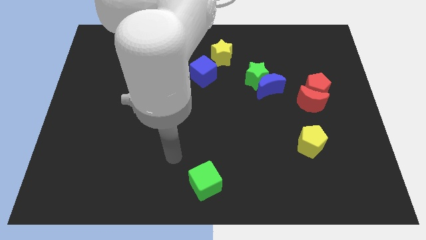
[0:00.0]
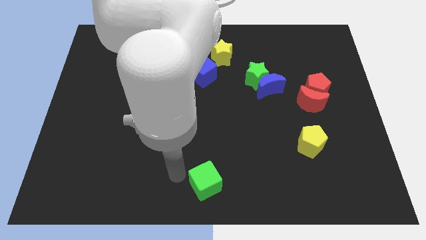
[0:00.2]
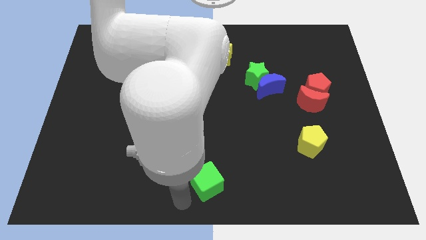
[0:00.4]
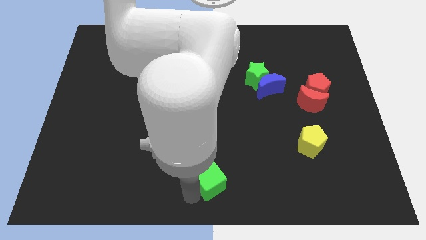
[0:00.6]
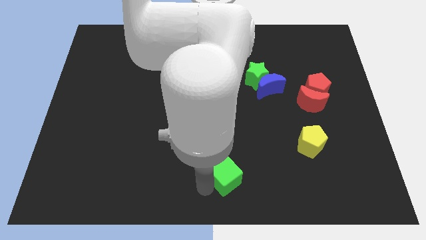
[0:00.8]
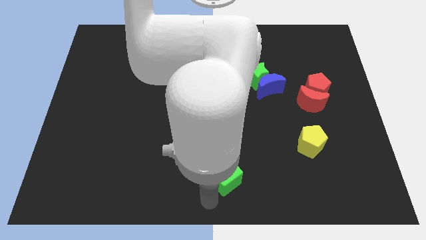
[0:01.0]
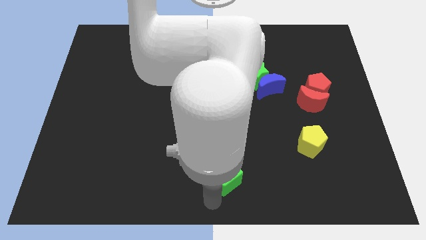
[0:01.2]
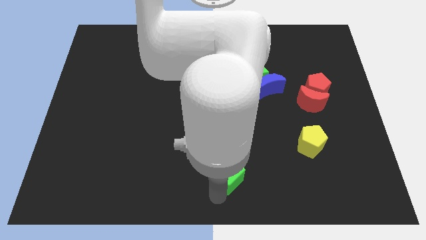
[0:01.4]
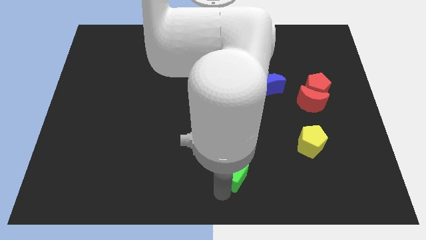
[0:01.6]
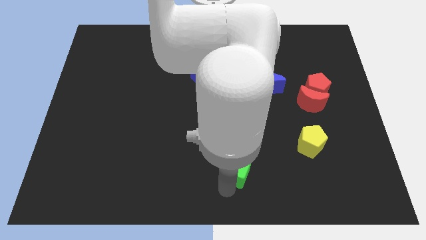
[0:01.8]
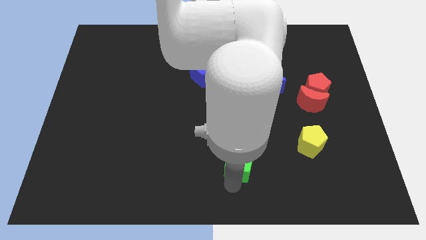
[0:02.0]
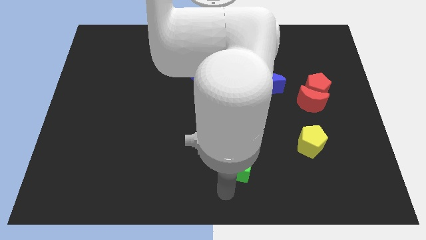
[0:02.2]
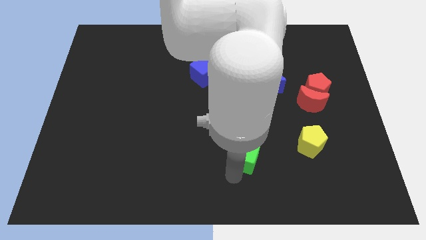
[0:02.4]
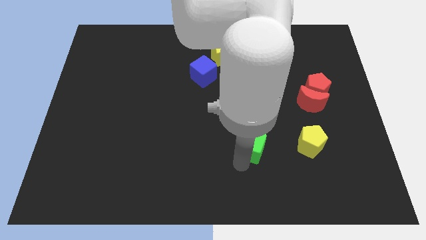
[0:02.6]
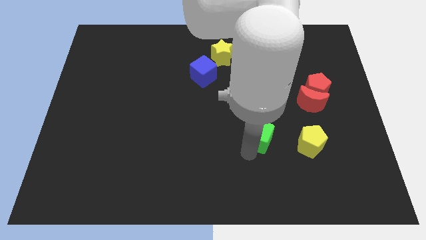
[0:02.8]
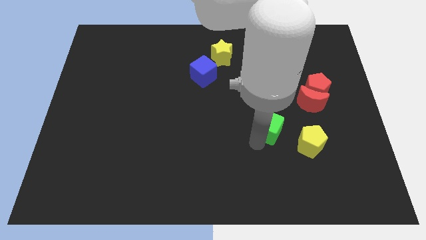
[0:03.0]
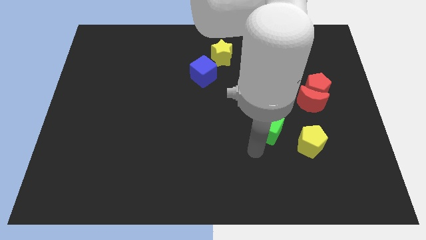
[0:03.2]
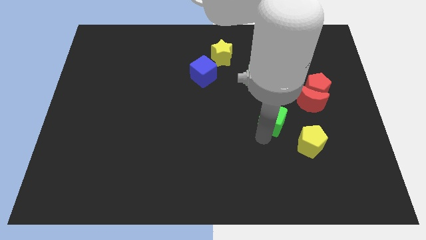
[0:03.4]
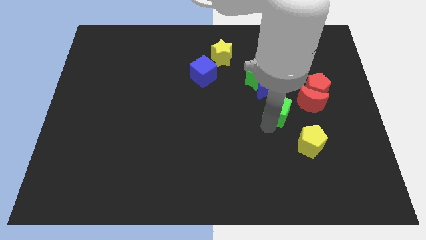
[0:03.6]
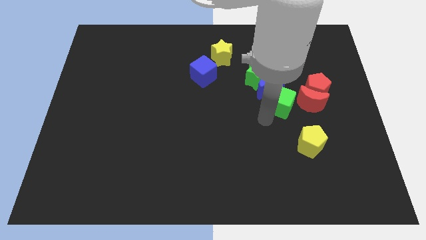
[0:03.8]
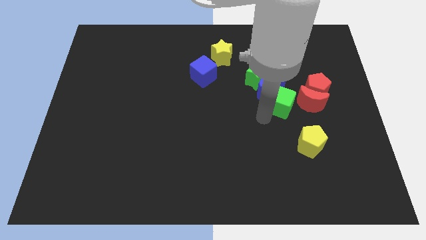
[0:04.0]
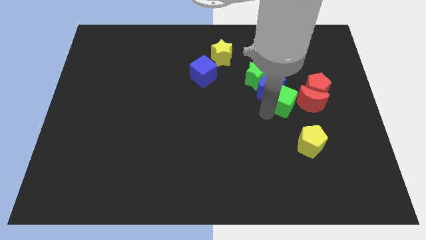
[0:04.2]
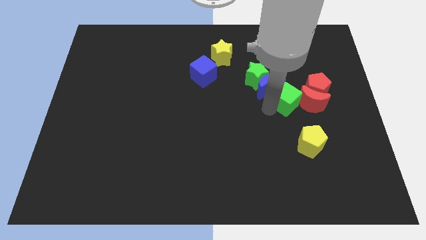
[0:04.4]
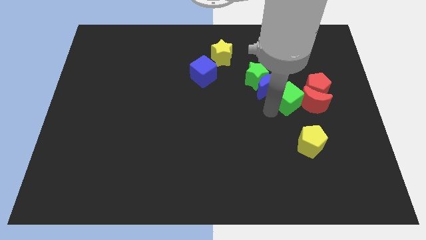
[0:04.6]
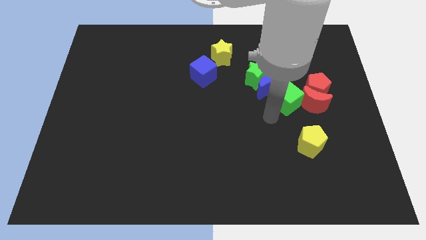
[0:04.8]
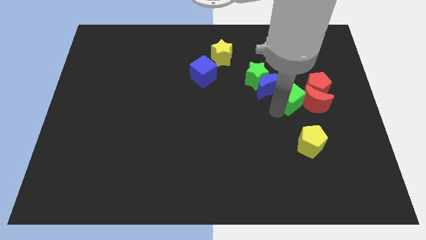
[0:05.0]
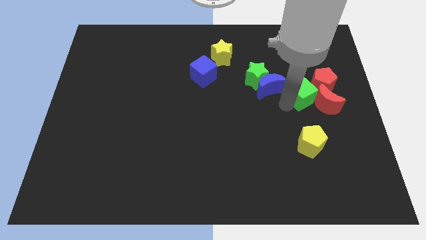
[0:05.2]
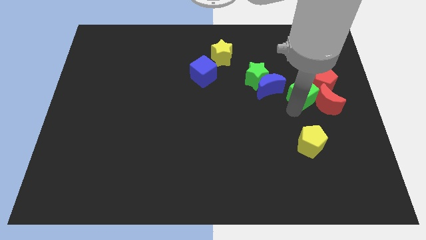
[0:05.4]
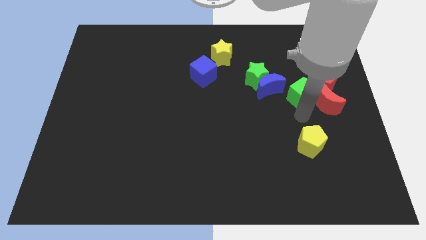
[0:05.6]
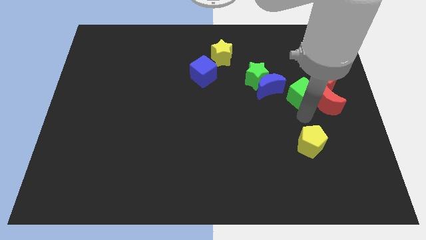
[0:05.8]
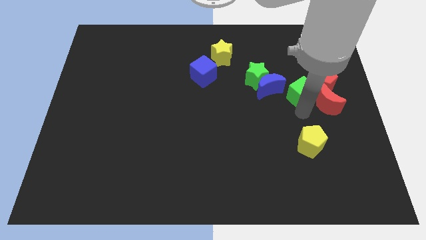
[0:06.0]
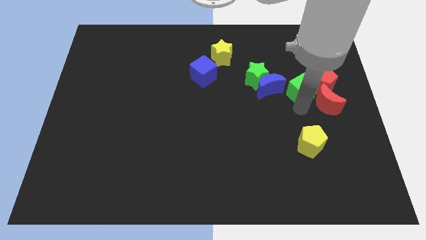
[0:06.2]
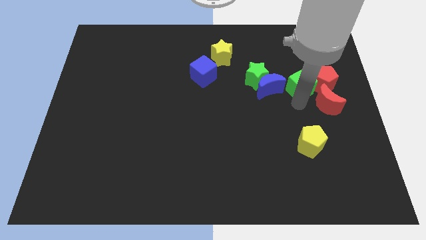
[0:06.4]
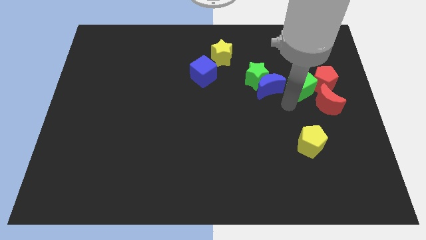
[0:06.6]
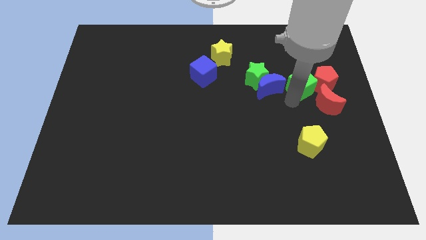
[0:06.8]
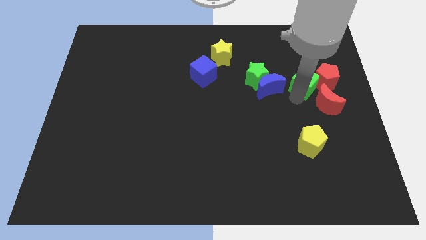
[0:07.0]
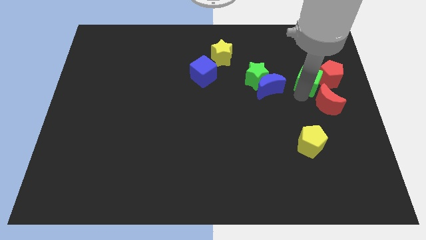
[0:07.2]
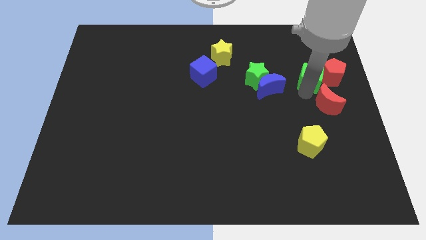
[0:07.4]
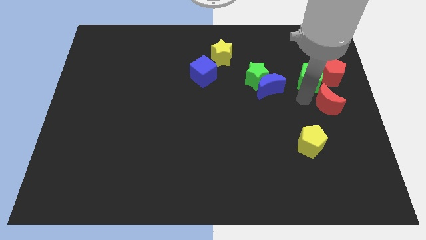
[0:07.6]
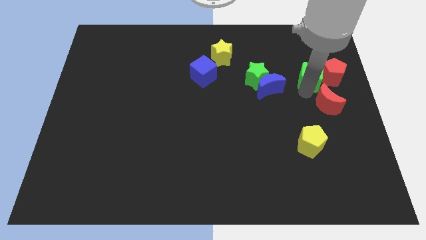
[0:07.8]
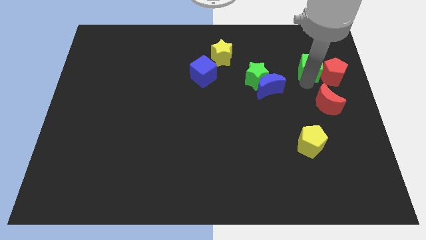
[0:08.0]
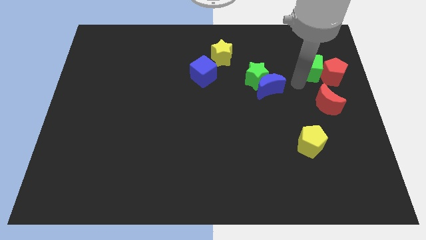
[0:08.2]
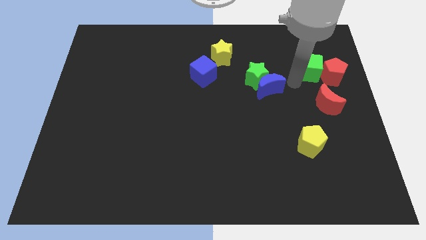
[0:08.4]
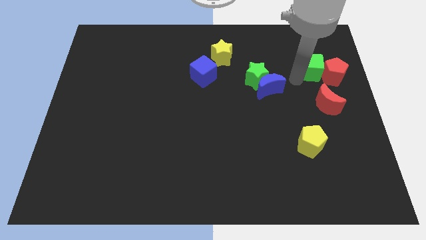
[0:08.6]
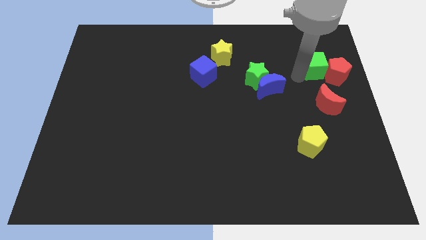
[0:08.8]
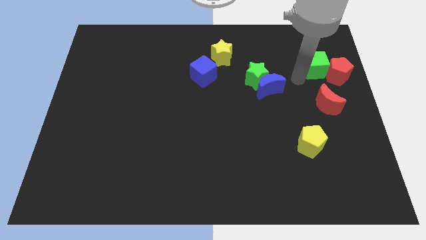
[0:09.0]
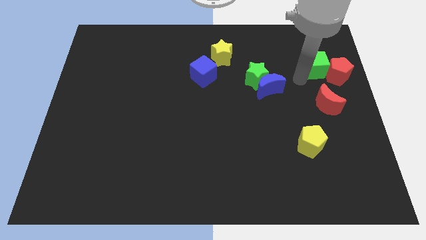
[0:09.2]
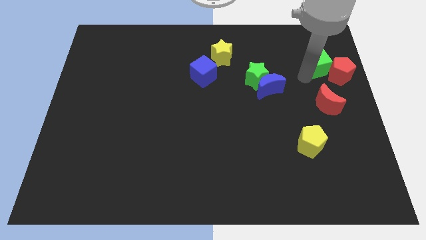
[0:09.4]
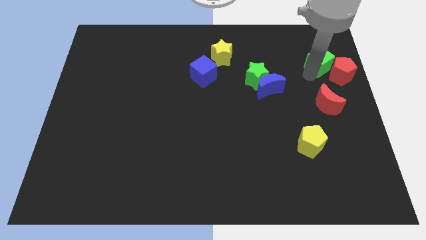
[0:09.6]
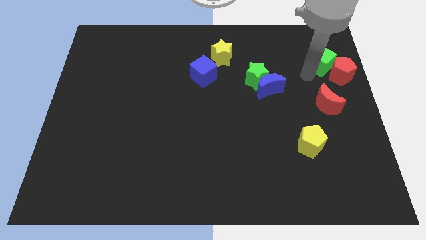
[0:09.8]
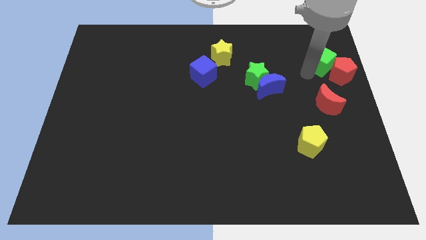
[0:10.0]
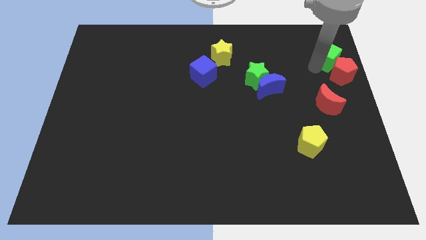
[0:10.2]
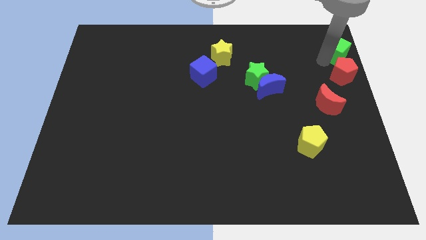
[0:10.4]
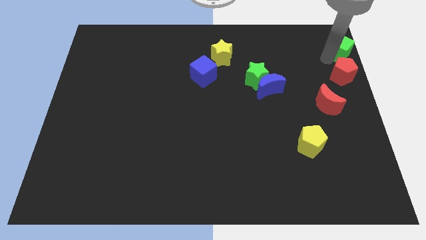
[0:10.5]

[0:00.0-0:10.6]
put the green cube to the top right corner
